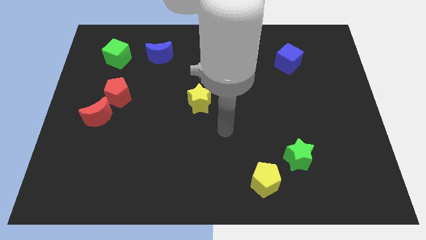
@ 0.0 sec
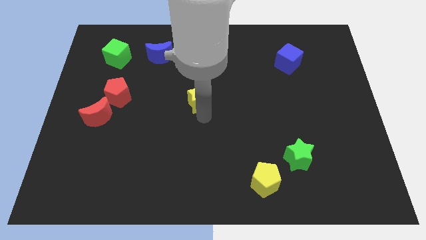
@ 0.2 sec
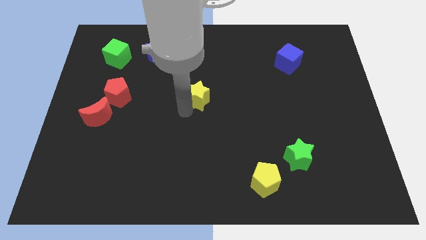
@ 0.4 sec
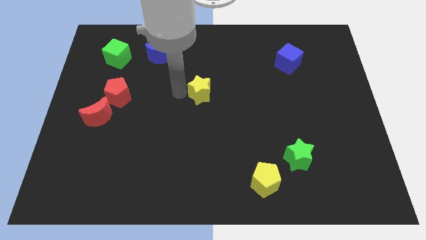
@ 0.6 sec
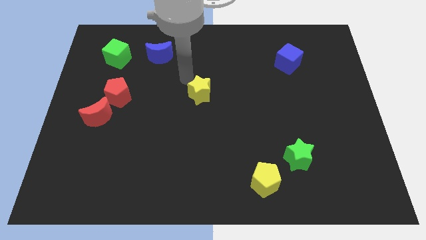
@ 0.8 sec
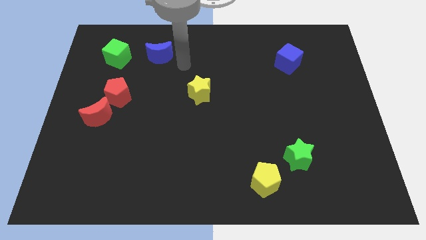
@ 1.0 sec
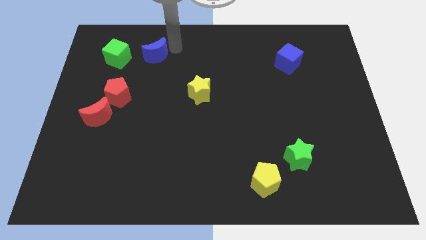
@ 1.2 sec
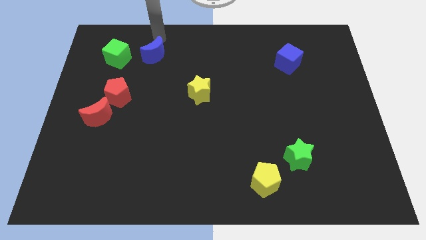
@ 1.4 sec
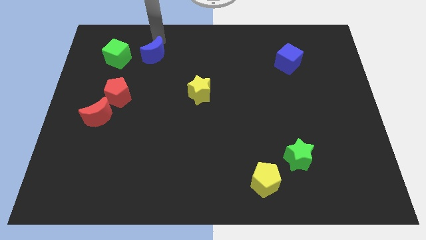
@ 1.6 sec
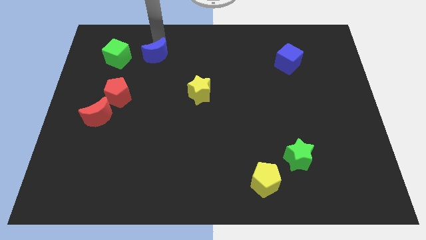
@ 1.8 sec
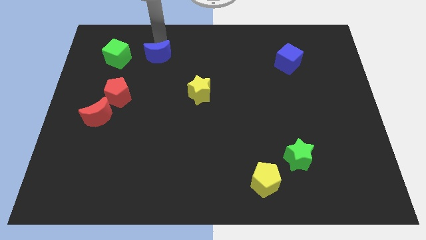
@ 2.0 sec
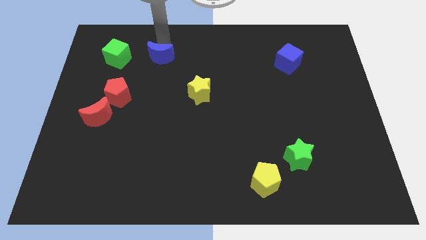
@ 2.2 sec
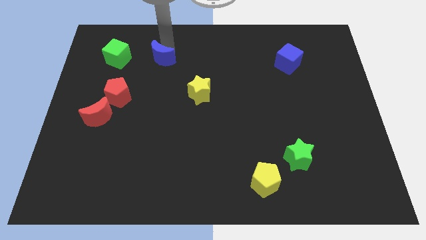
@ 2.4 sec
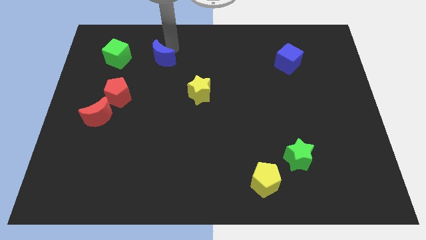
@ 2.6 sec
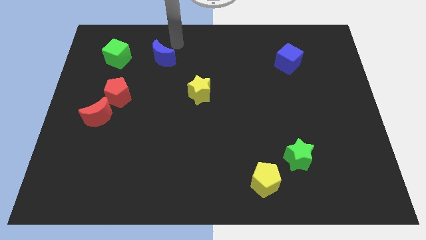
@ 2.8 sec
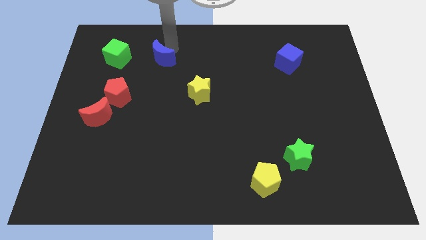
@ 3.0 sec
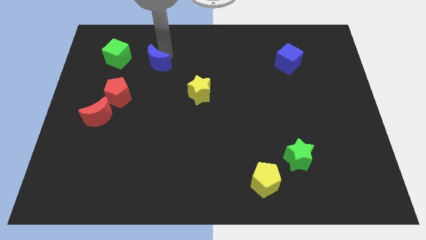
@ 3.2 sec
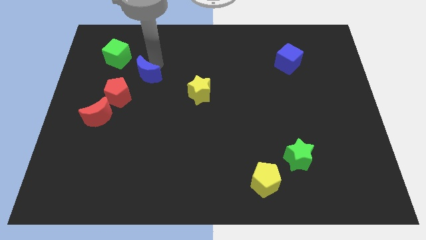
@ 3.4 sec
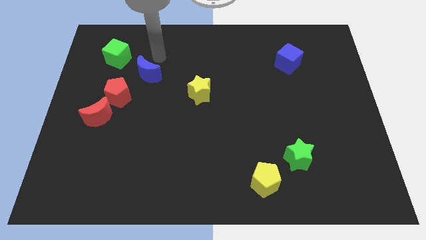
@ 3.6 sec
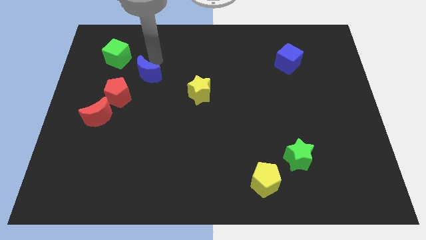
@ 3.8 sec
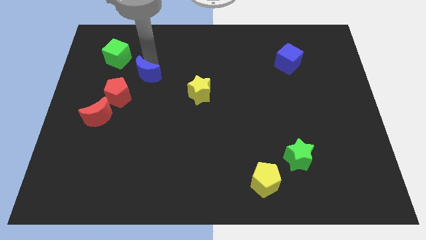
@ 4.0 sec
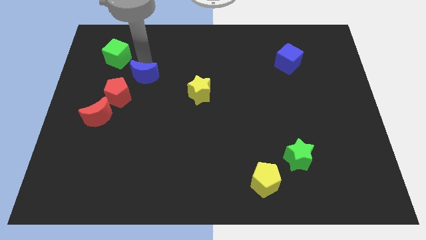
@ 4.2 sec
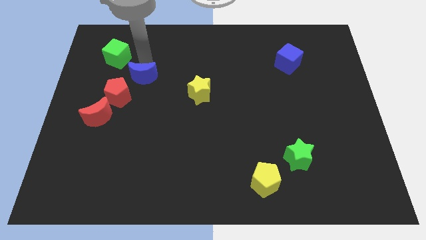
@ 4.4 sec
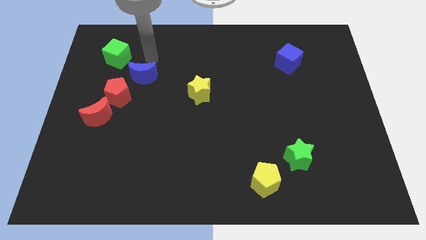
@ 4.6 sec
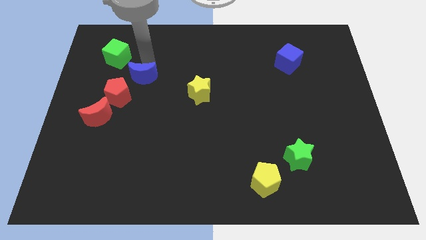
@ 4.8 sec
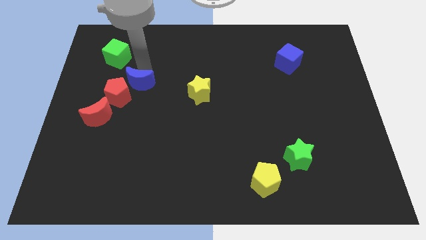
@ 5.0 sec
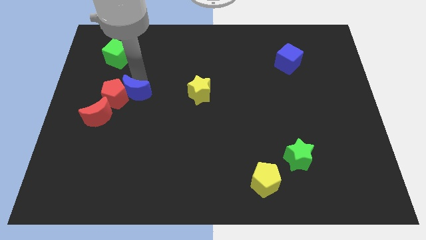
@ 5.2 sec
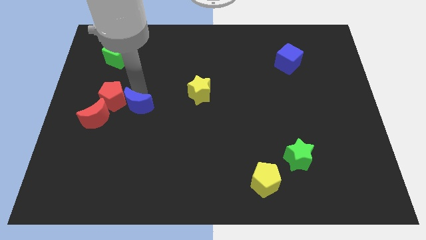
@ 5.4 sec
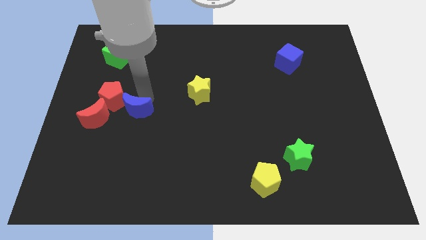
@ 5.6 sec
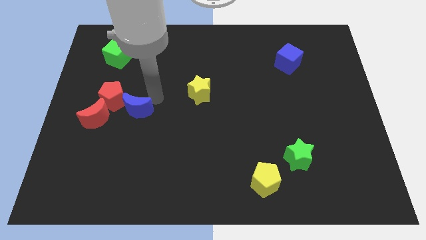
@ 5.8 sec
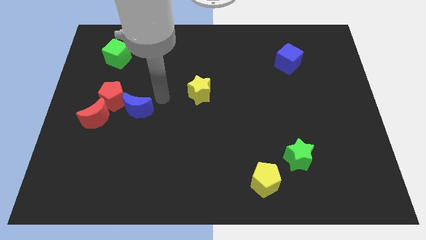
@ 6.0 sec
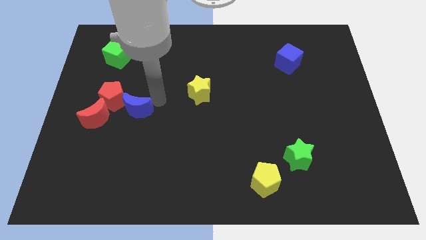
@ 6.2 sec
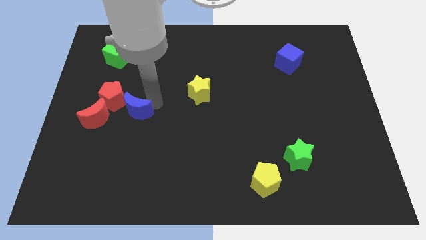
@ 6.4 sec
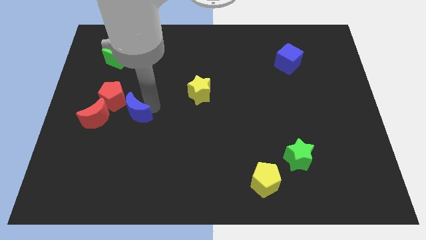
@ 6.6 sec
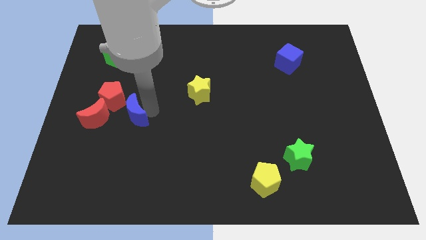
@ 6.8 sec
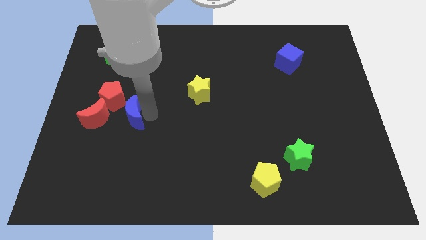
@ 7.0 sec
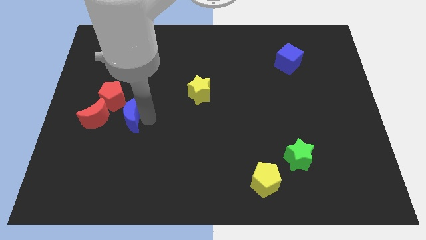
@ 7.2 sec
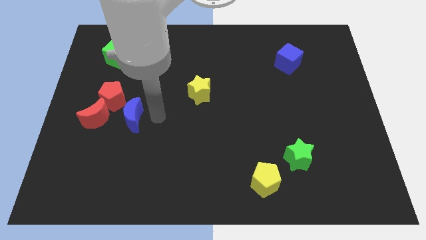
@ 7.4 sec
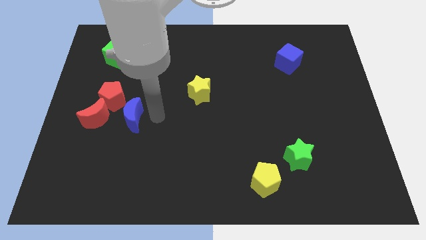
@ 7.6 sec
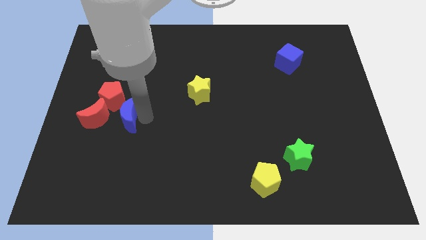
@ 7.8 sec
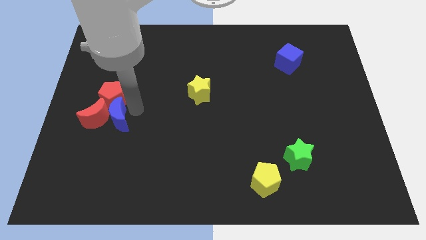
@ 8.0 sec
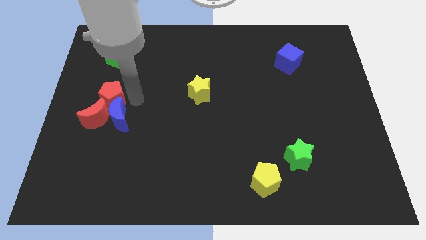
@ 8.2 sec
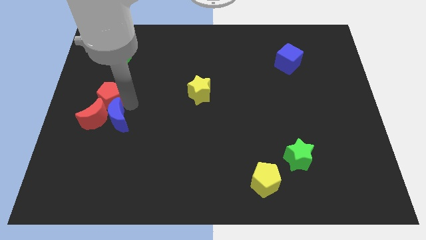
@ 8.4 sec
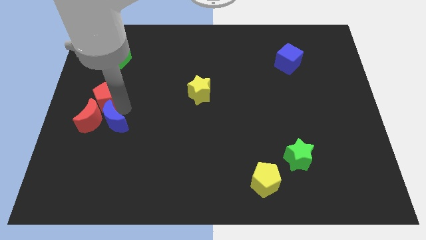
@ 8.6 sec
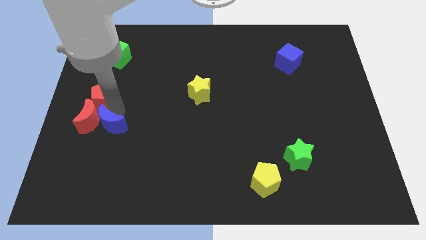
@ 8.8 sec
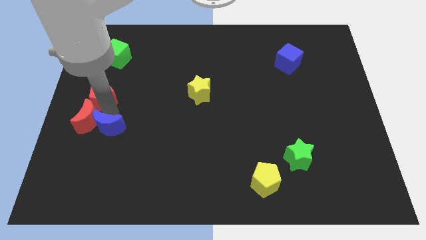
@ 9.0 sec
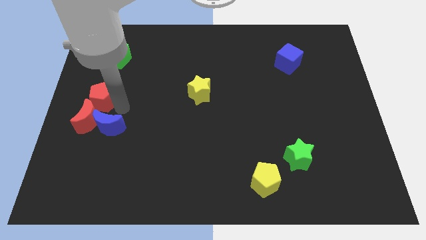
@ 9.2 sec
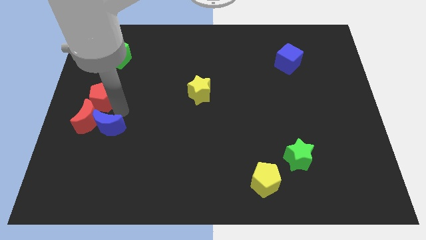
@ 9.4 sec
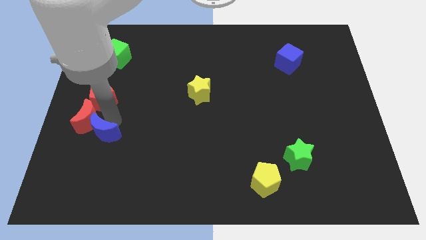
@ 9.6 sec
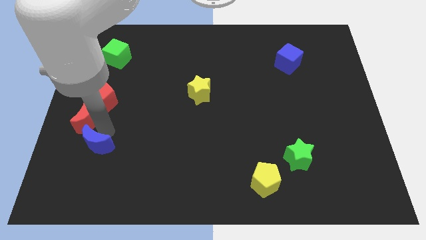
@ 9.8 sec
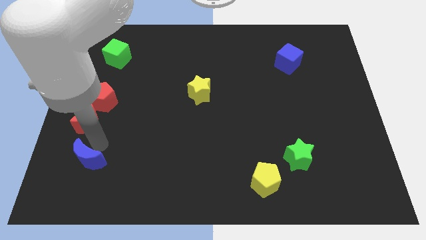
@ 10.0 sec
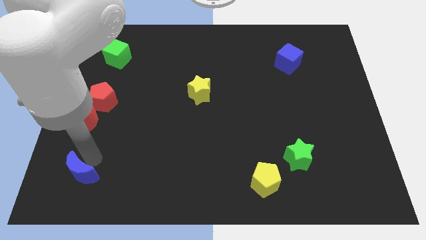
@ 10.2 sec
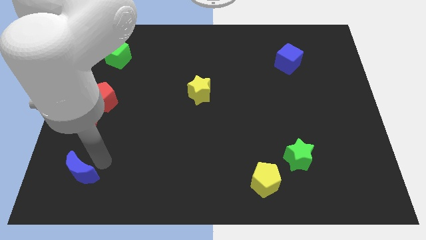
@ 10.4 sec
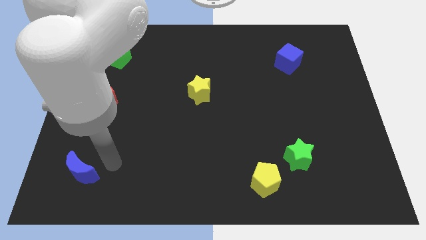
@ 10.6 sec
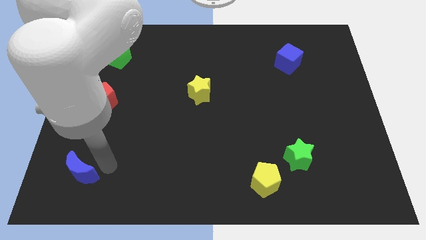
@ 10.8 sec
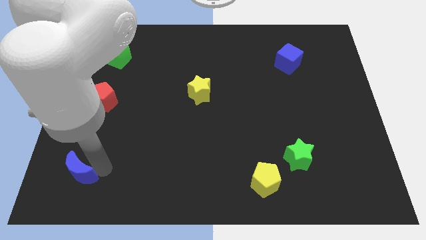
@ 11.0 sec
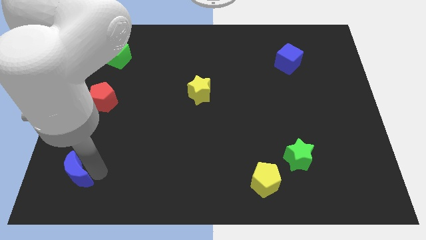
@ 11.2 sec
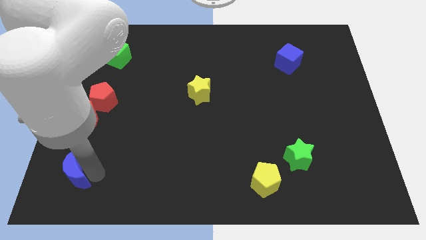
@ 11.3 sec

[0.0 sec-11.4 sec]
move the blue moon to the bottom left of the board
